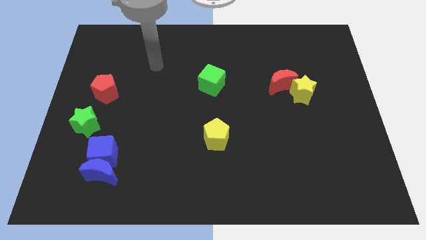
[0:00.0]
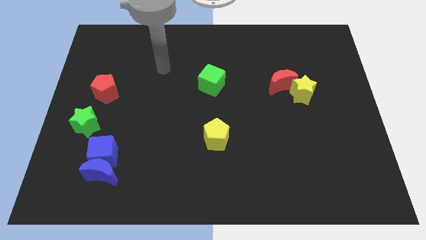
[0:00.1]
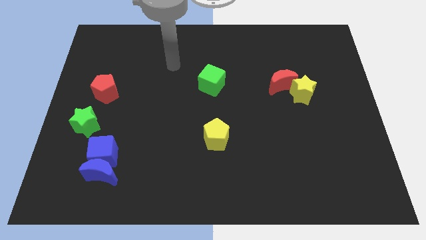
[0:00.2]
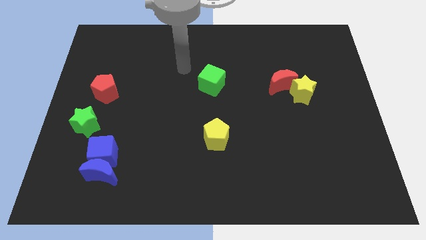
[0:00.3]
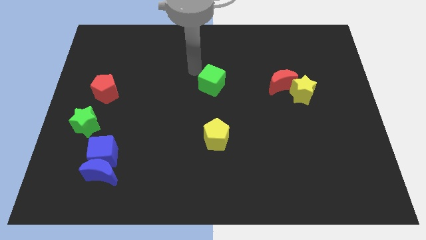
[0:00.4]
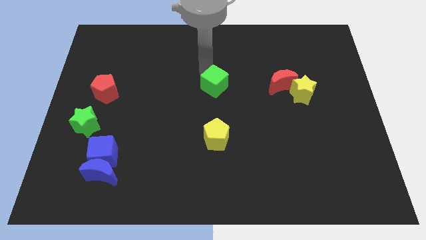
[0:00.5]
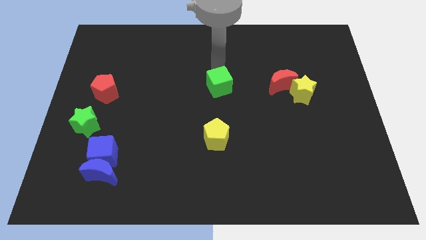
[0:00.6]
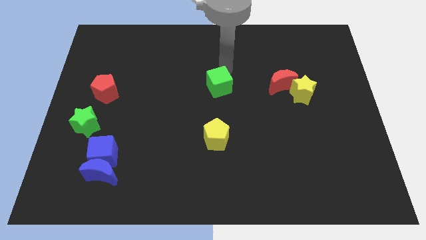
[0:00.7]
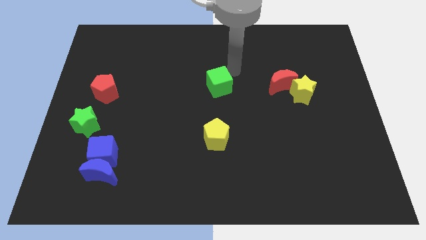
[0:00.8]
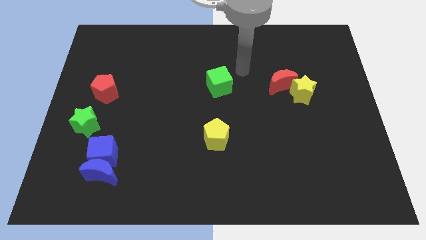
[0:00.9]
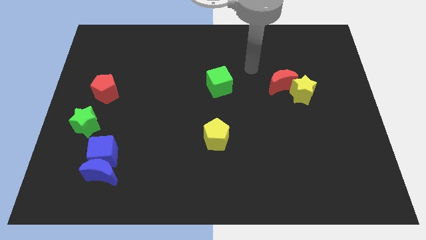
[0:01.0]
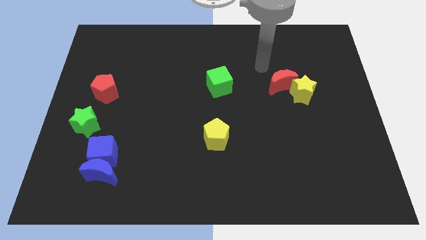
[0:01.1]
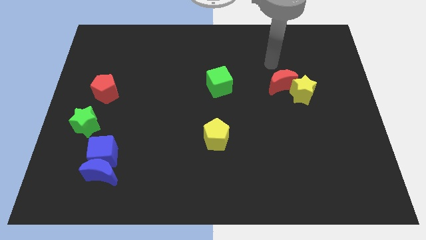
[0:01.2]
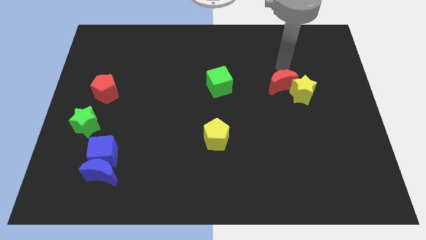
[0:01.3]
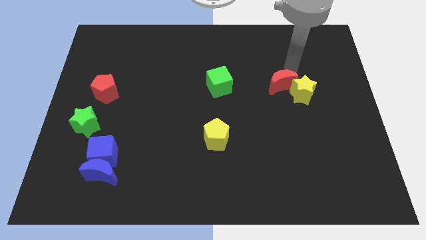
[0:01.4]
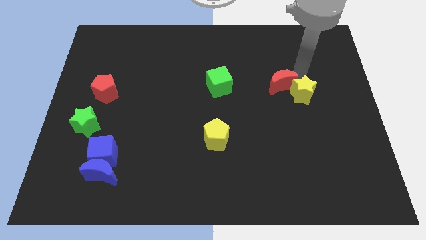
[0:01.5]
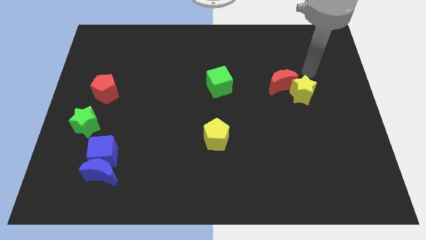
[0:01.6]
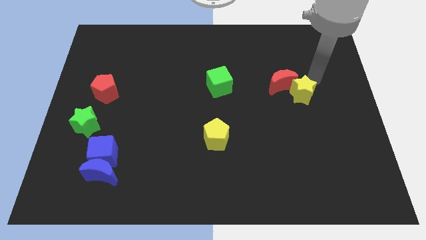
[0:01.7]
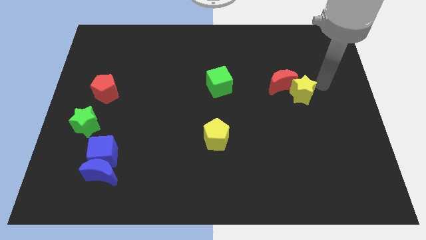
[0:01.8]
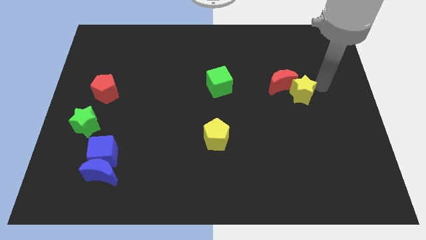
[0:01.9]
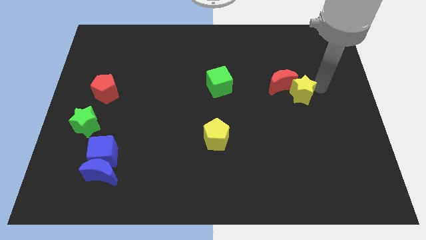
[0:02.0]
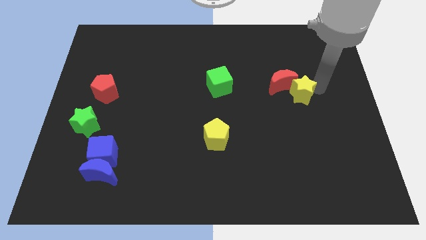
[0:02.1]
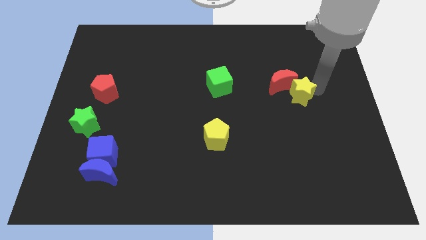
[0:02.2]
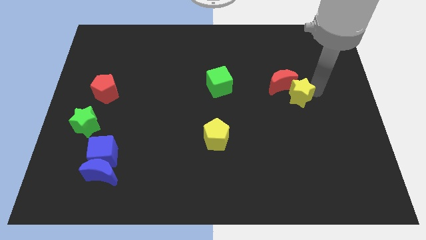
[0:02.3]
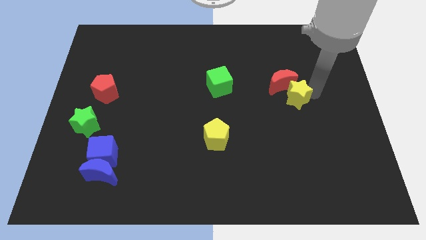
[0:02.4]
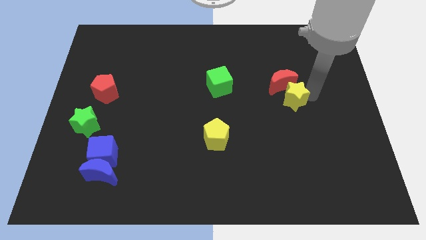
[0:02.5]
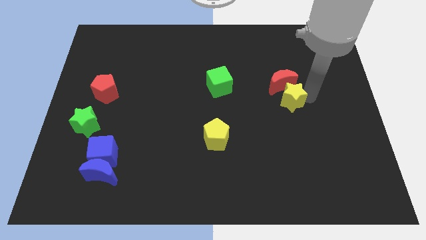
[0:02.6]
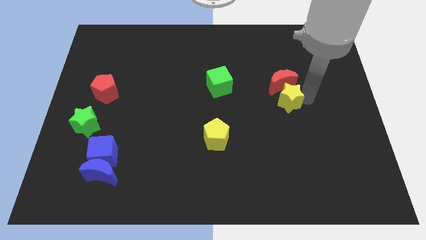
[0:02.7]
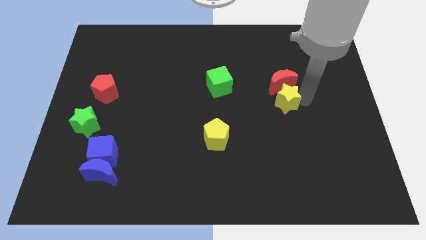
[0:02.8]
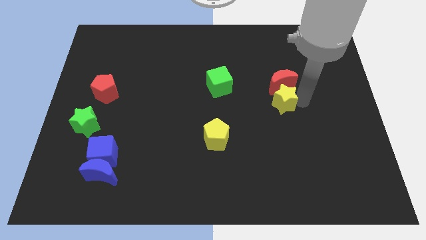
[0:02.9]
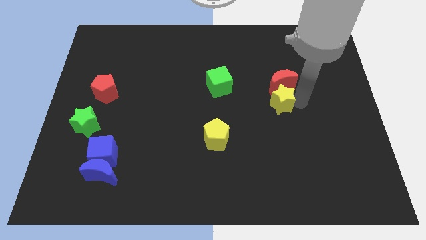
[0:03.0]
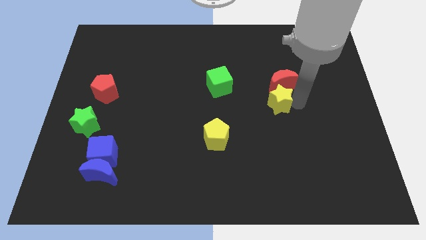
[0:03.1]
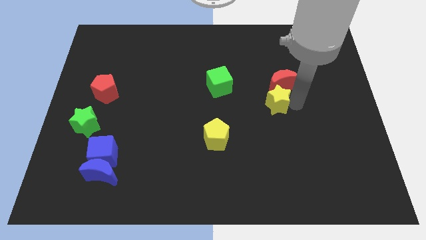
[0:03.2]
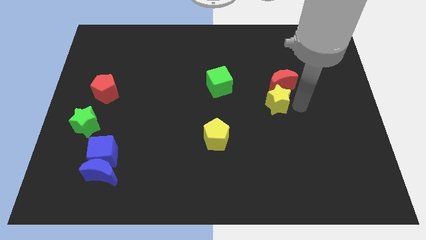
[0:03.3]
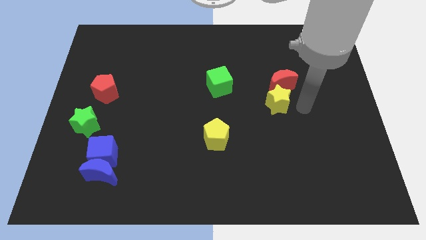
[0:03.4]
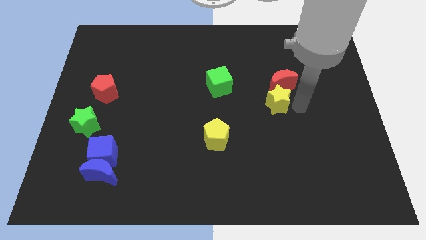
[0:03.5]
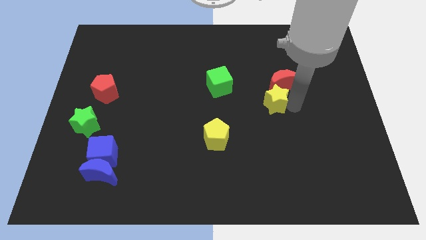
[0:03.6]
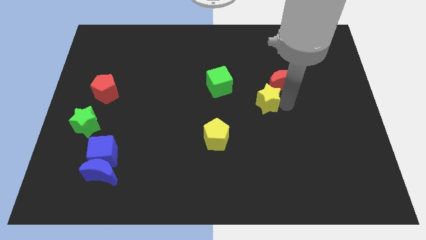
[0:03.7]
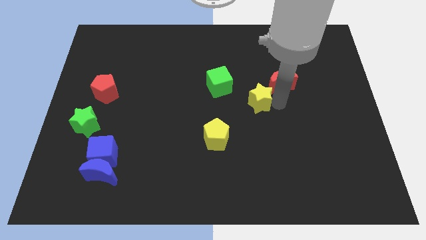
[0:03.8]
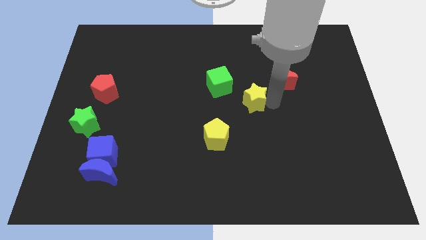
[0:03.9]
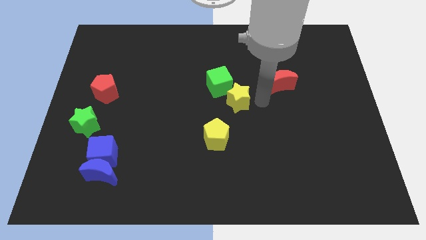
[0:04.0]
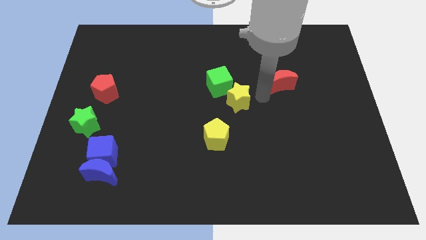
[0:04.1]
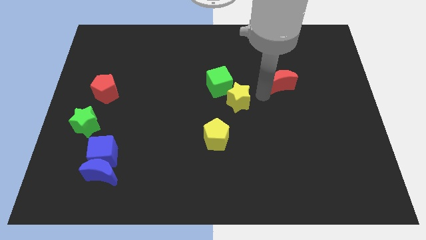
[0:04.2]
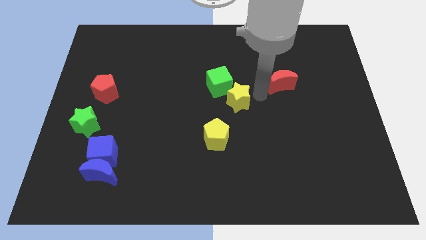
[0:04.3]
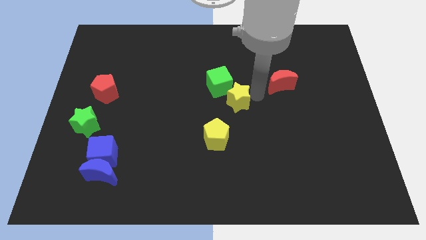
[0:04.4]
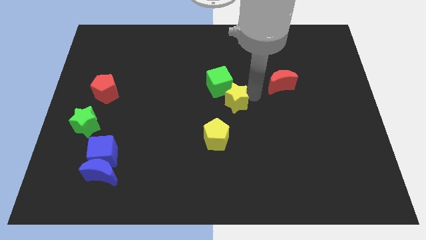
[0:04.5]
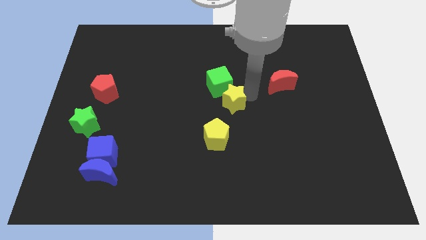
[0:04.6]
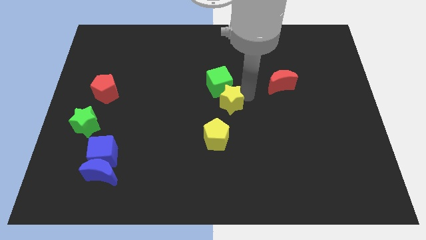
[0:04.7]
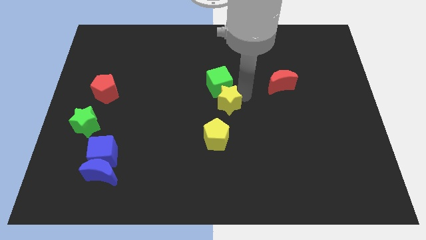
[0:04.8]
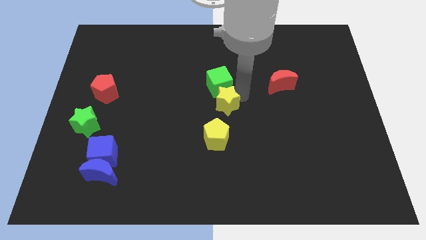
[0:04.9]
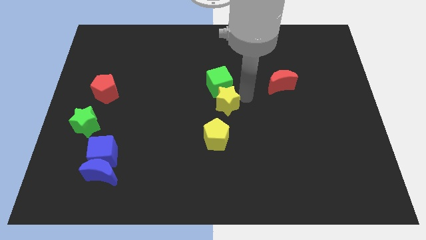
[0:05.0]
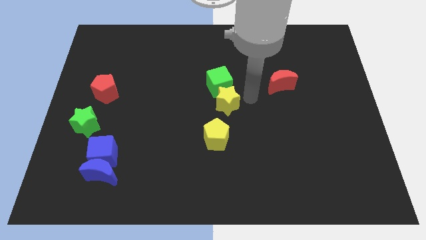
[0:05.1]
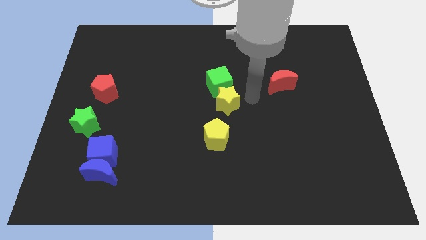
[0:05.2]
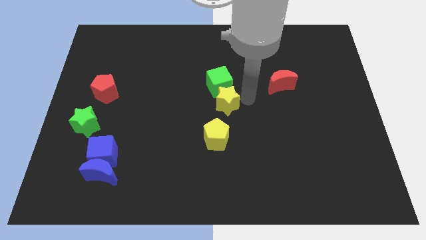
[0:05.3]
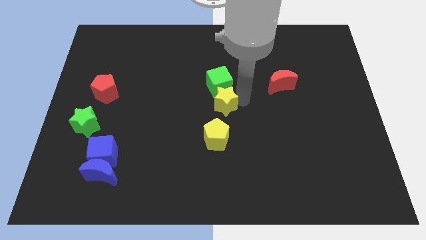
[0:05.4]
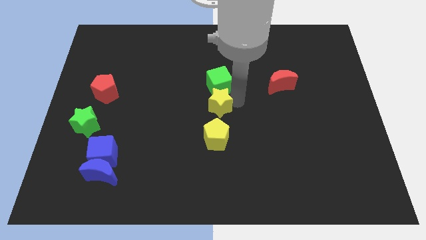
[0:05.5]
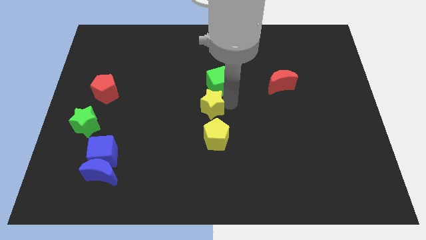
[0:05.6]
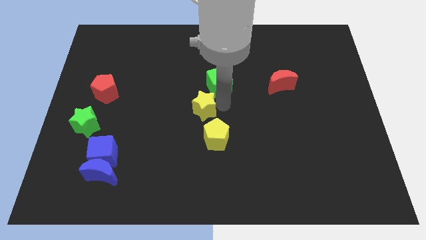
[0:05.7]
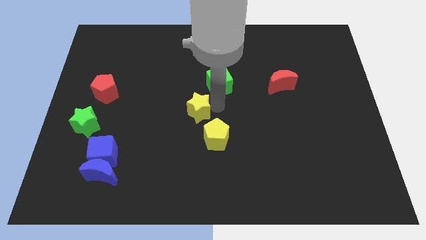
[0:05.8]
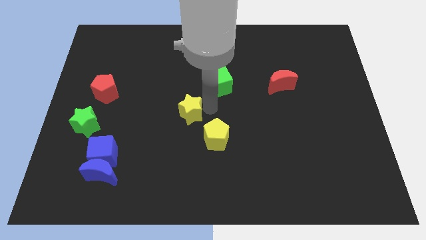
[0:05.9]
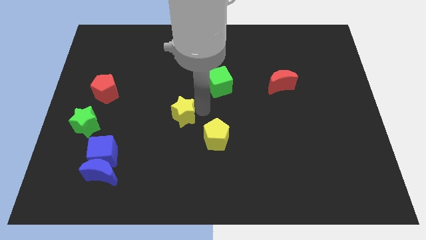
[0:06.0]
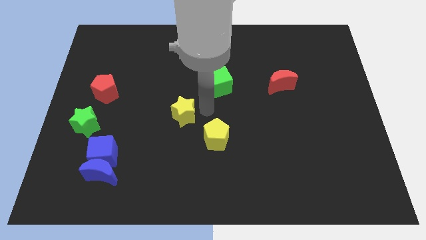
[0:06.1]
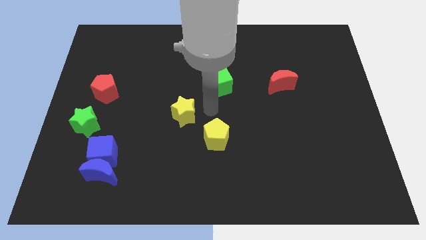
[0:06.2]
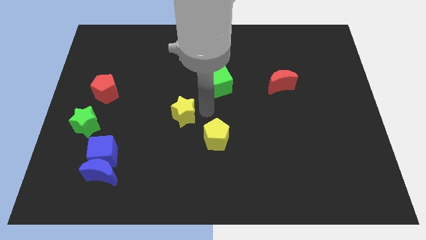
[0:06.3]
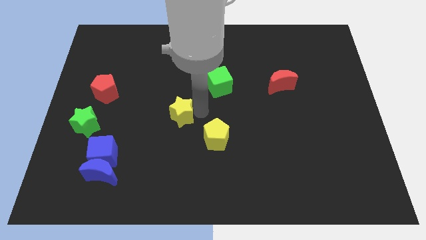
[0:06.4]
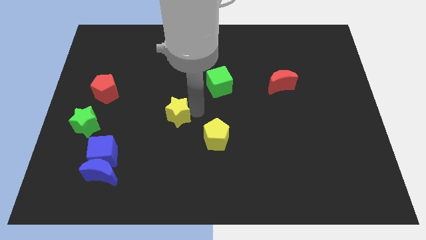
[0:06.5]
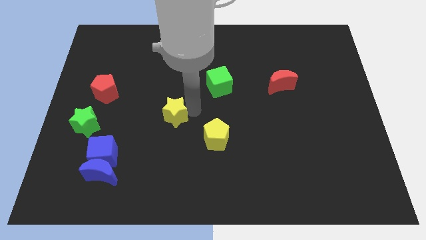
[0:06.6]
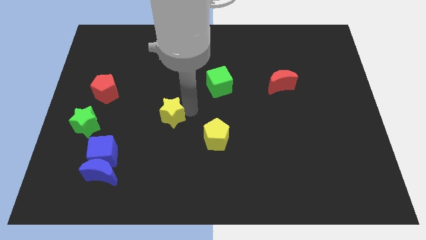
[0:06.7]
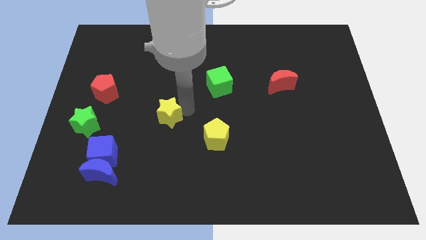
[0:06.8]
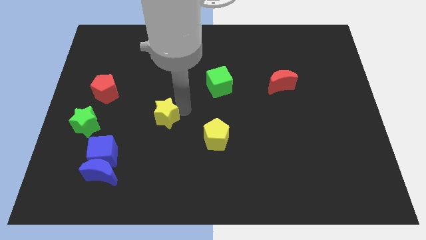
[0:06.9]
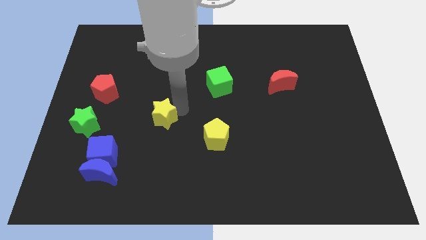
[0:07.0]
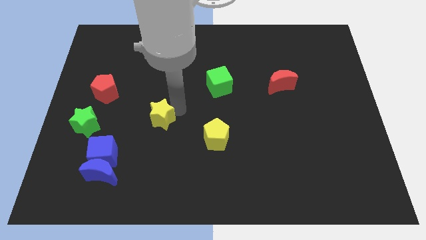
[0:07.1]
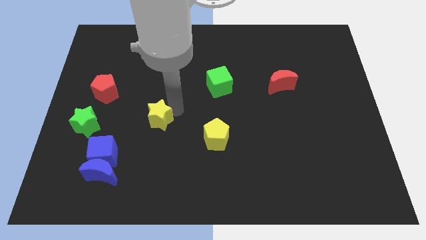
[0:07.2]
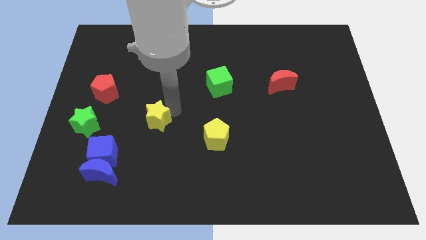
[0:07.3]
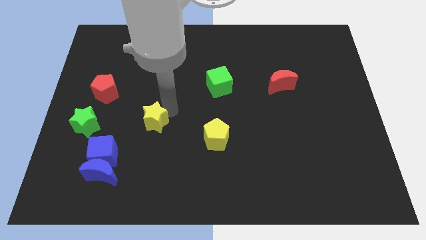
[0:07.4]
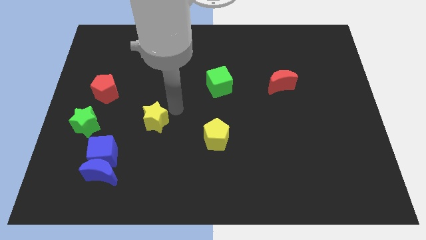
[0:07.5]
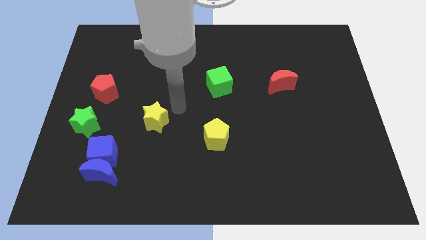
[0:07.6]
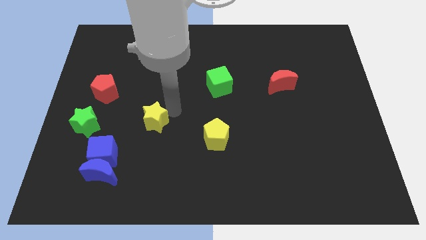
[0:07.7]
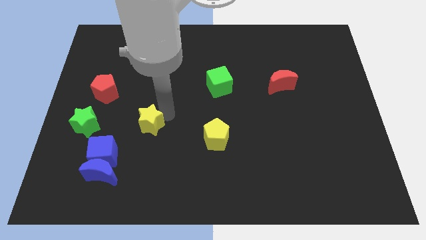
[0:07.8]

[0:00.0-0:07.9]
move the yellow star diagonally up and to the right of the blue cube
